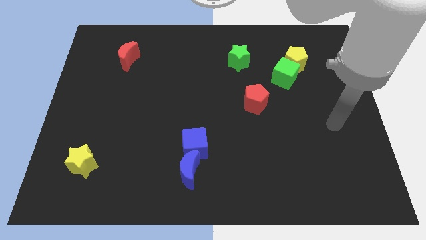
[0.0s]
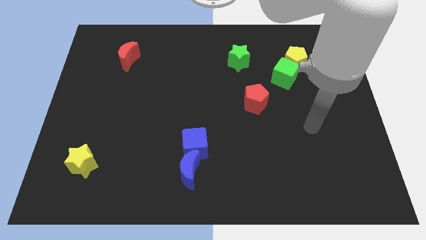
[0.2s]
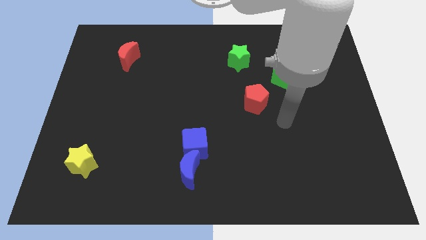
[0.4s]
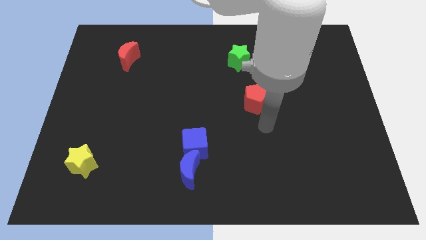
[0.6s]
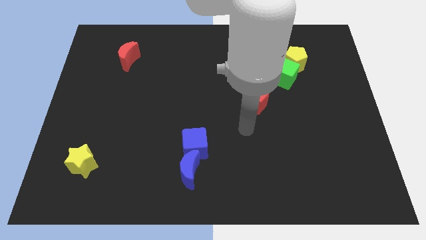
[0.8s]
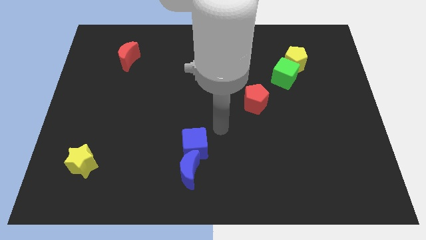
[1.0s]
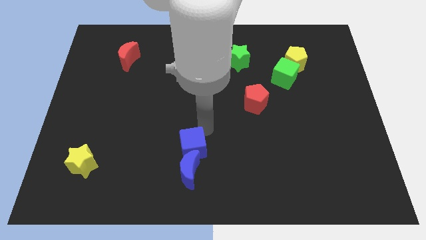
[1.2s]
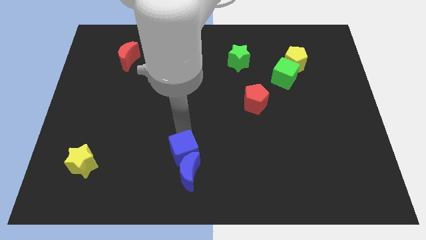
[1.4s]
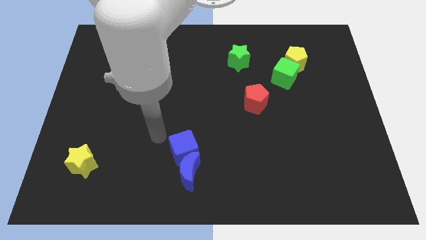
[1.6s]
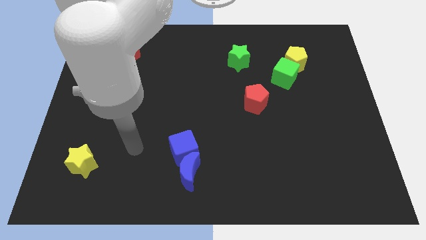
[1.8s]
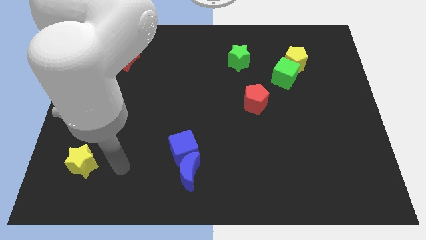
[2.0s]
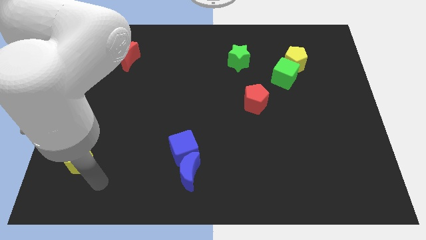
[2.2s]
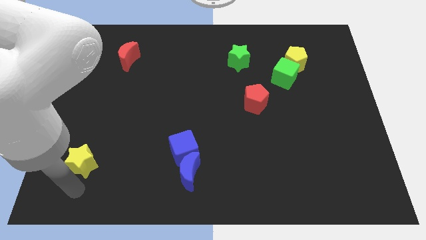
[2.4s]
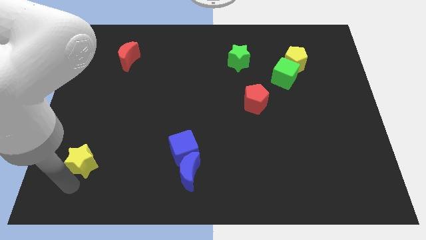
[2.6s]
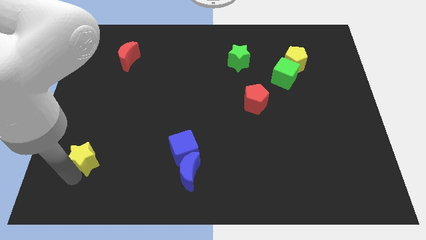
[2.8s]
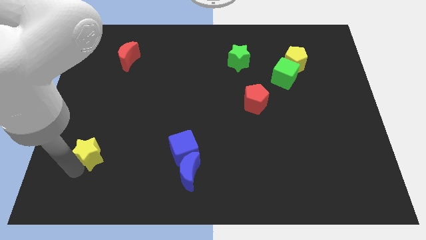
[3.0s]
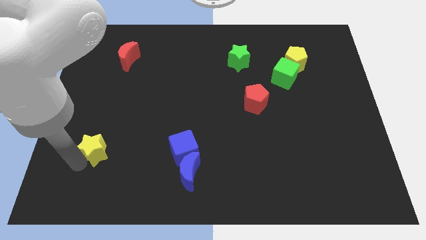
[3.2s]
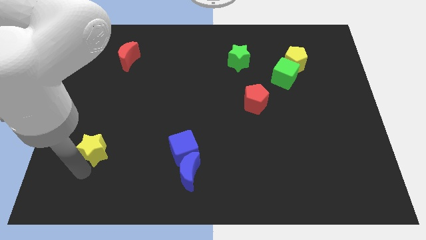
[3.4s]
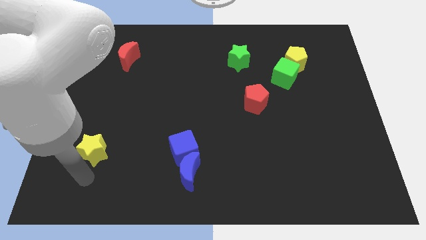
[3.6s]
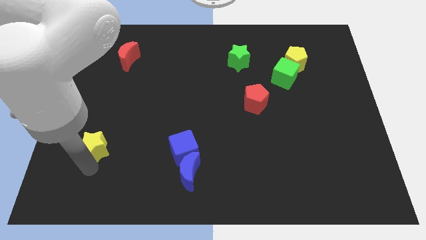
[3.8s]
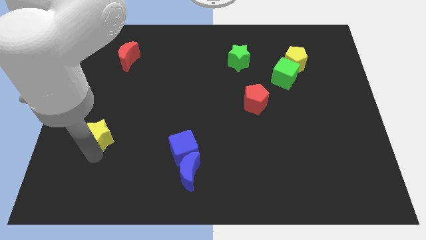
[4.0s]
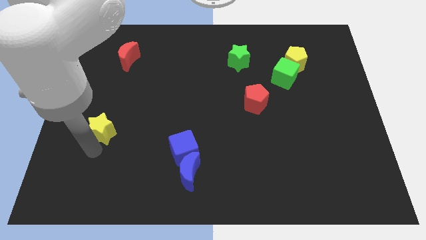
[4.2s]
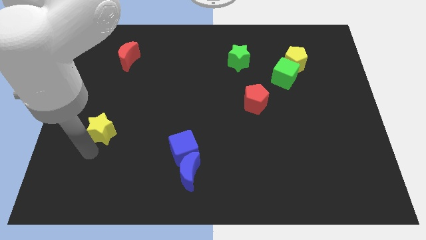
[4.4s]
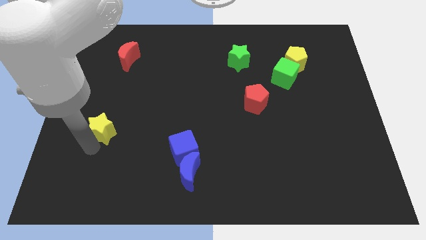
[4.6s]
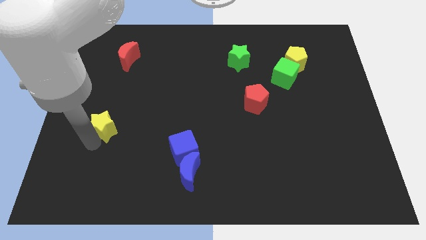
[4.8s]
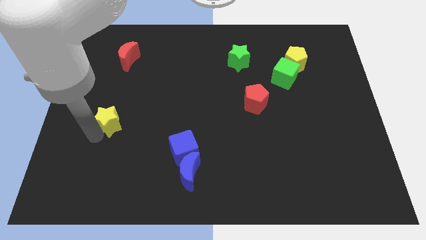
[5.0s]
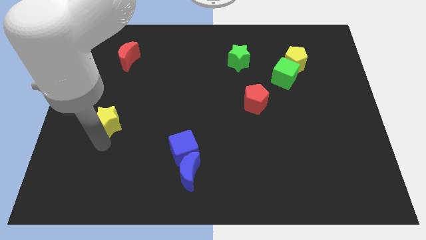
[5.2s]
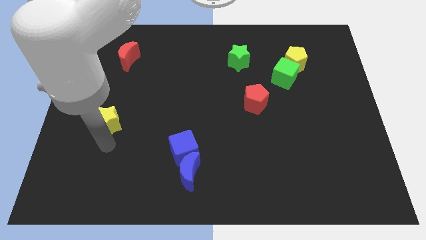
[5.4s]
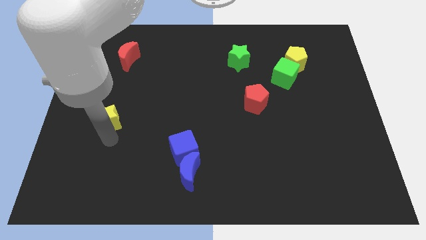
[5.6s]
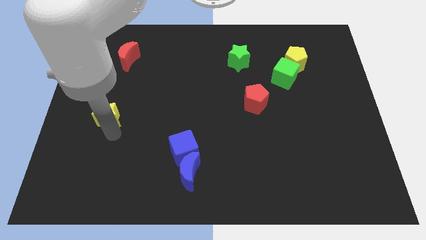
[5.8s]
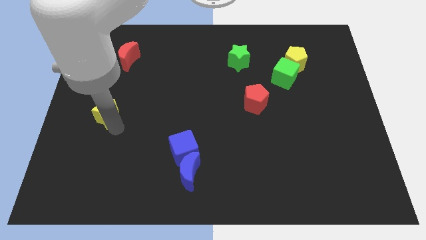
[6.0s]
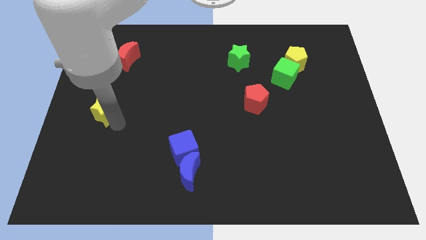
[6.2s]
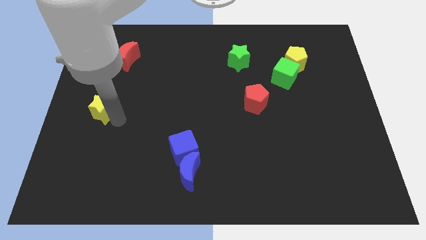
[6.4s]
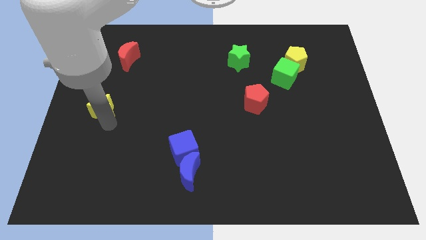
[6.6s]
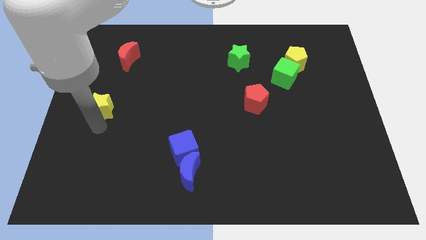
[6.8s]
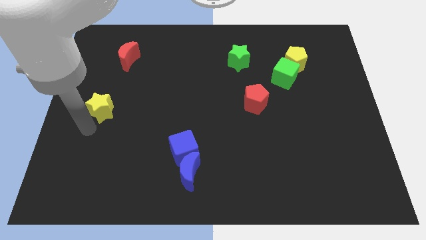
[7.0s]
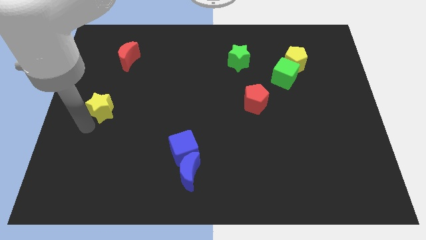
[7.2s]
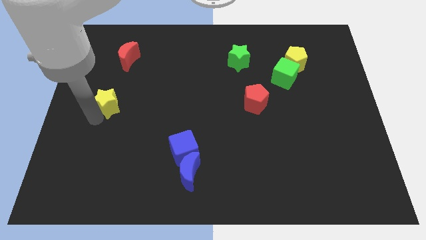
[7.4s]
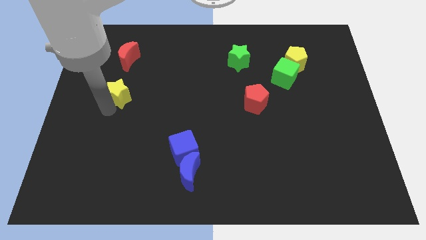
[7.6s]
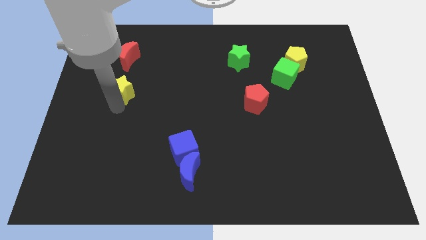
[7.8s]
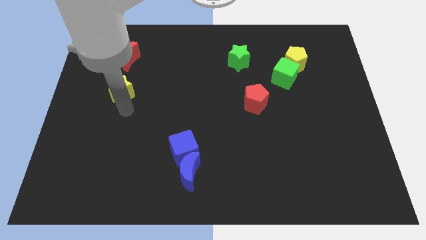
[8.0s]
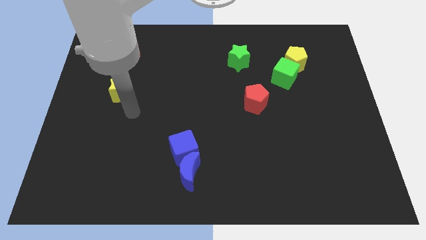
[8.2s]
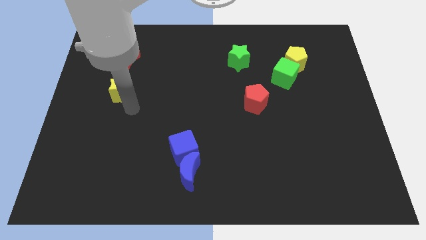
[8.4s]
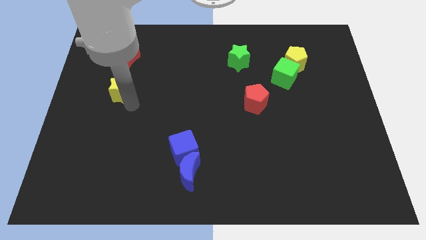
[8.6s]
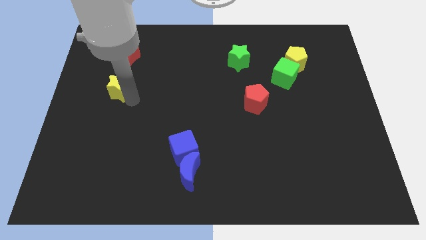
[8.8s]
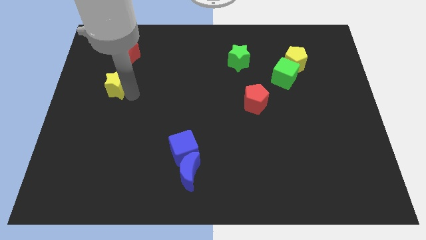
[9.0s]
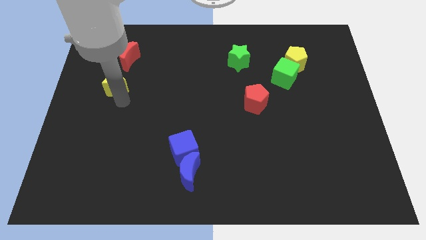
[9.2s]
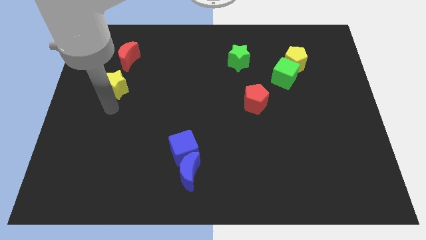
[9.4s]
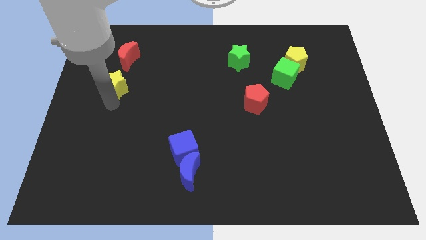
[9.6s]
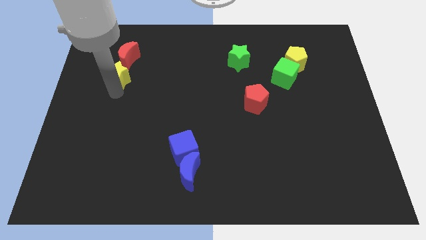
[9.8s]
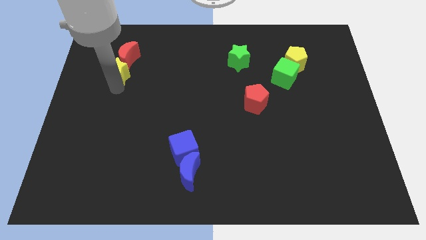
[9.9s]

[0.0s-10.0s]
put the yellow star towards the red moon

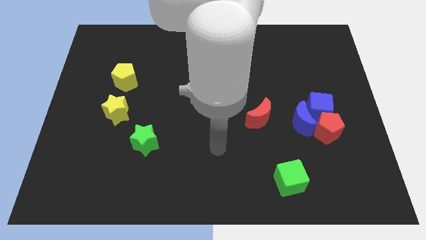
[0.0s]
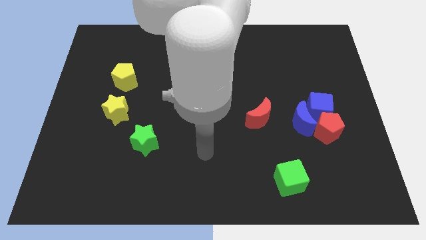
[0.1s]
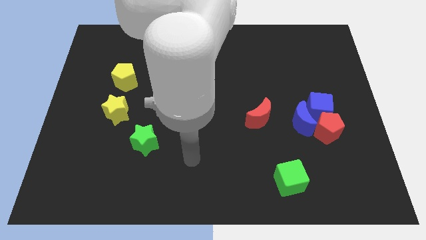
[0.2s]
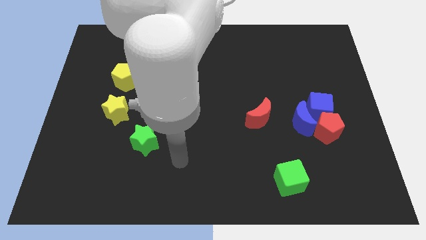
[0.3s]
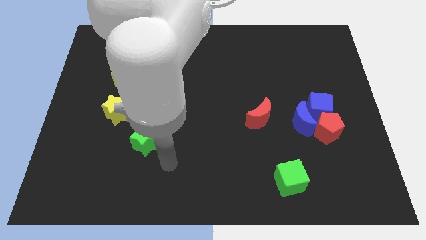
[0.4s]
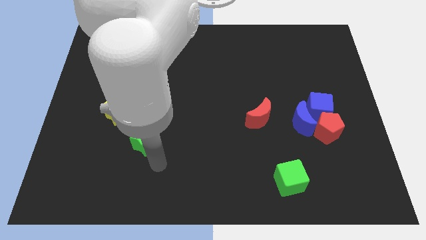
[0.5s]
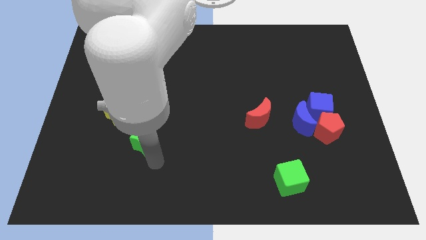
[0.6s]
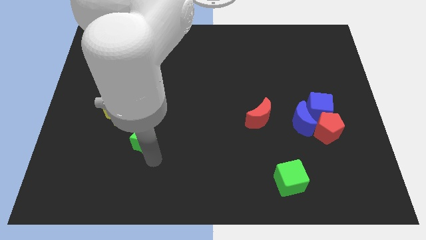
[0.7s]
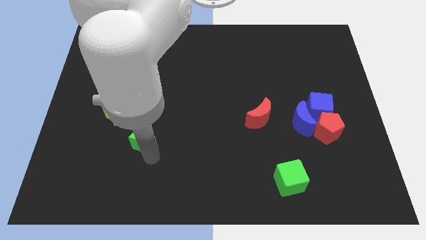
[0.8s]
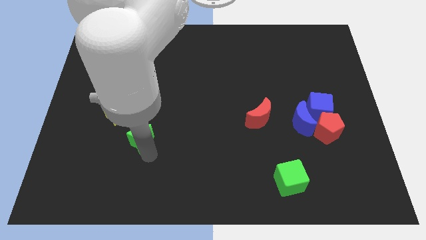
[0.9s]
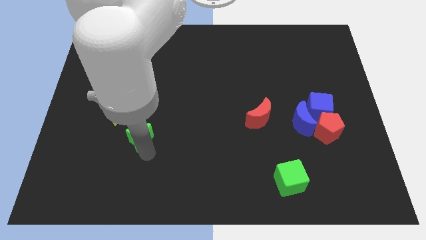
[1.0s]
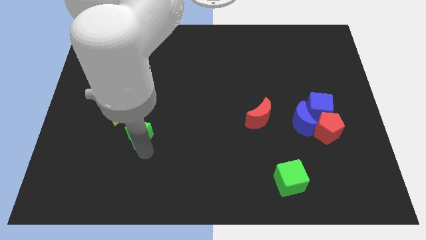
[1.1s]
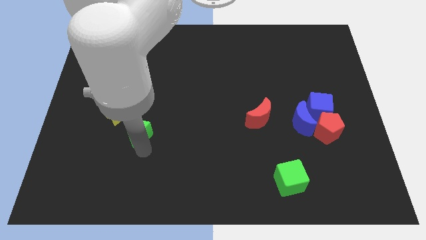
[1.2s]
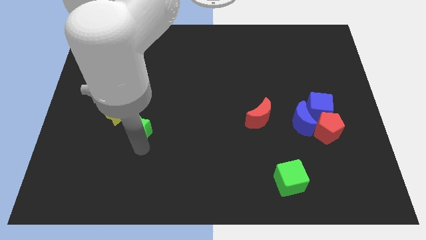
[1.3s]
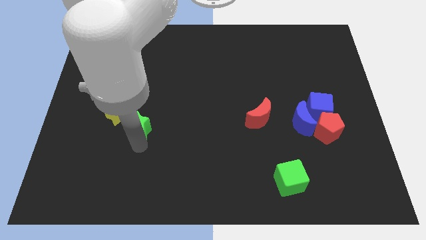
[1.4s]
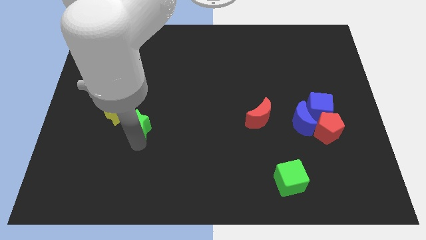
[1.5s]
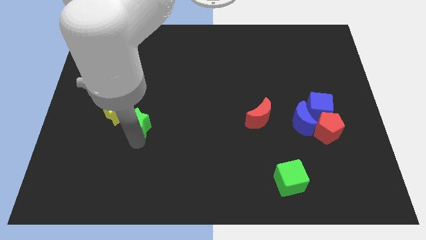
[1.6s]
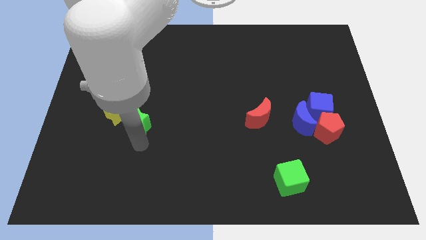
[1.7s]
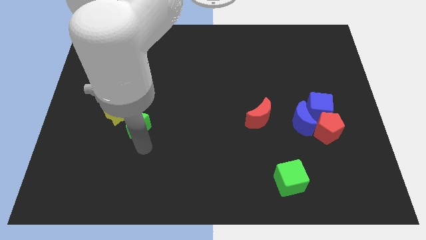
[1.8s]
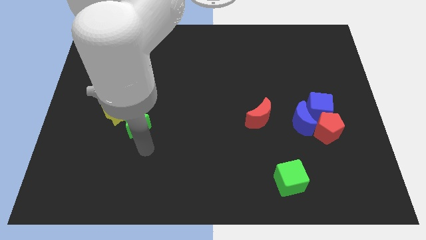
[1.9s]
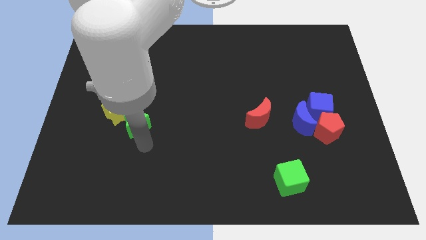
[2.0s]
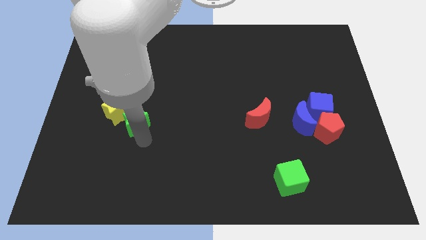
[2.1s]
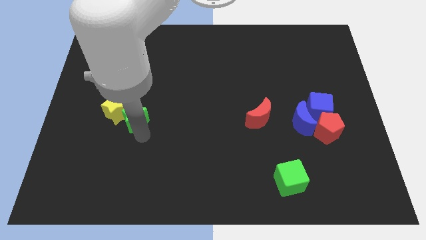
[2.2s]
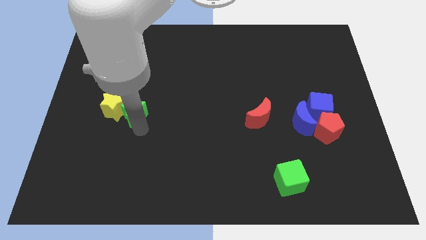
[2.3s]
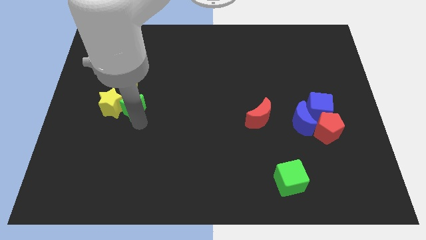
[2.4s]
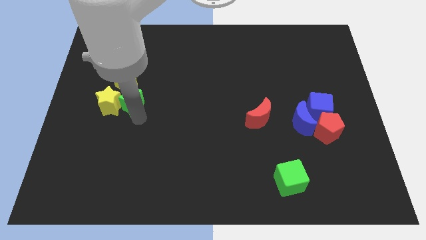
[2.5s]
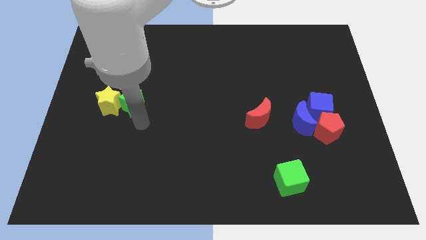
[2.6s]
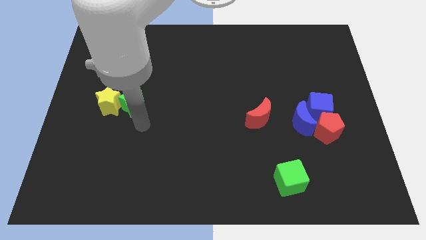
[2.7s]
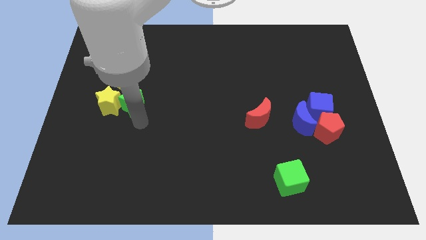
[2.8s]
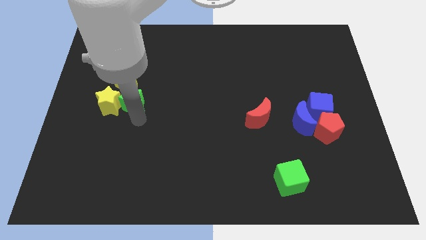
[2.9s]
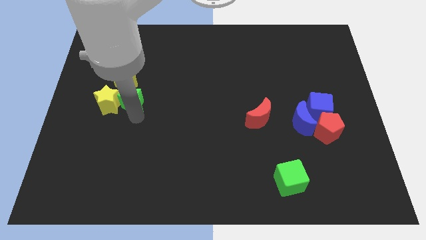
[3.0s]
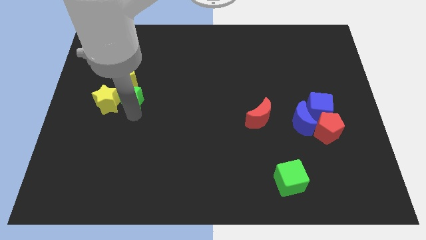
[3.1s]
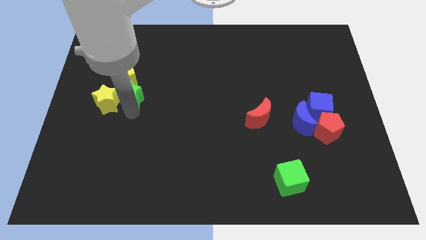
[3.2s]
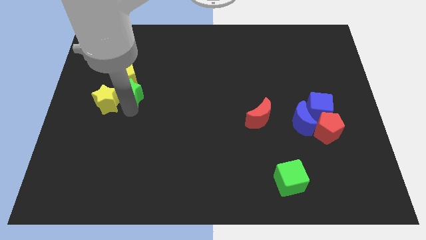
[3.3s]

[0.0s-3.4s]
move the green star towards the yellow pentagon
